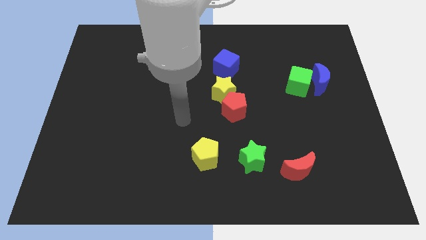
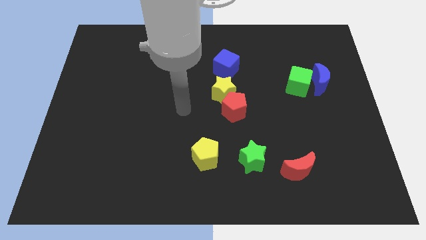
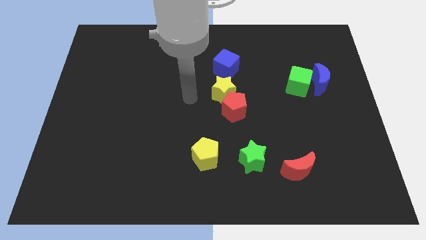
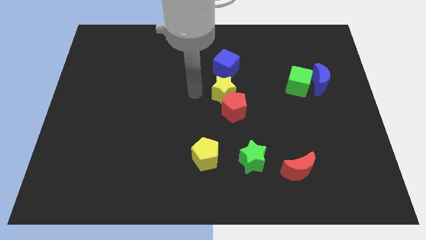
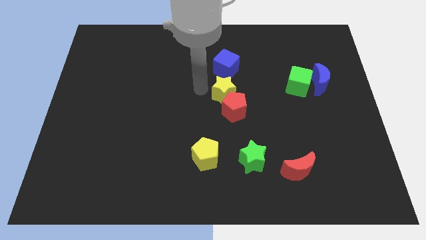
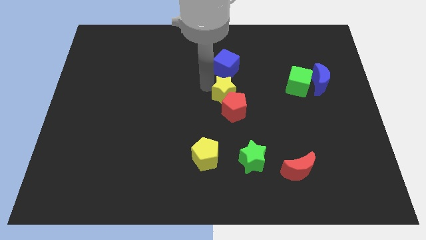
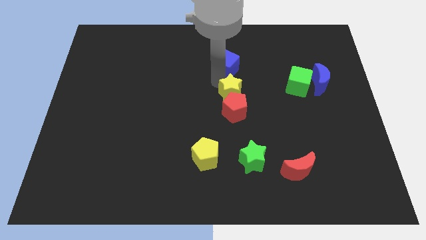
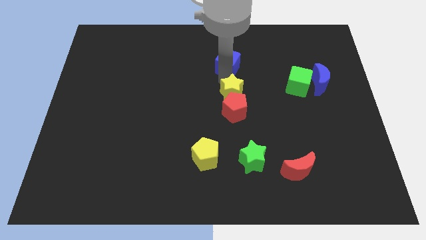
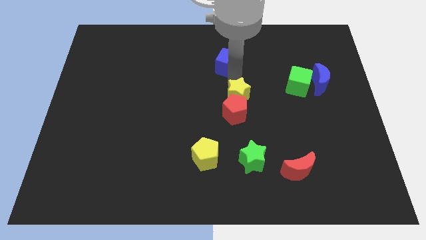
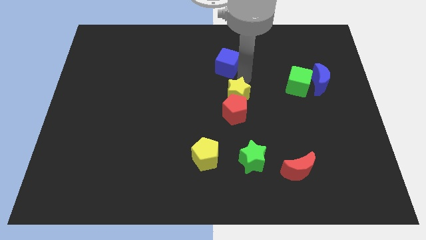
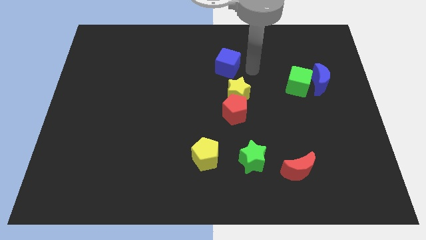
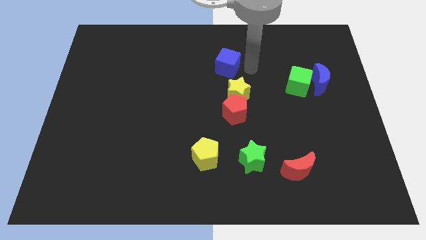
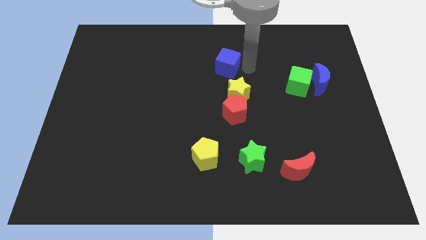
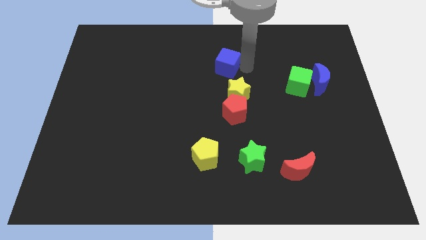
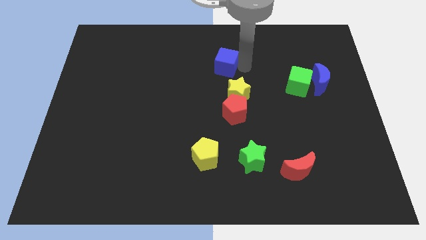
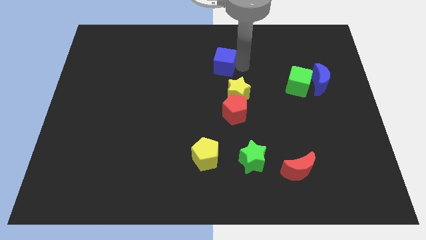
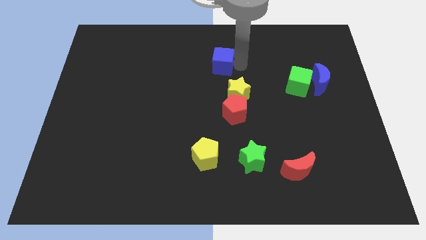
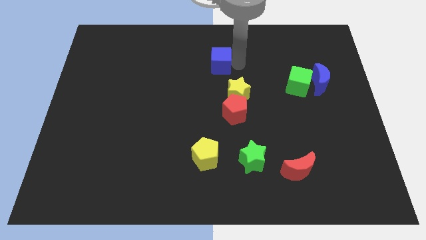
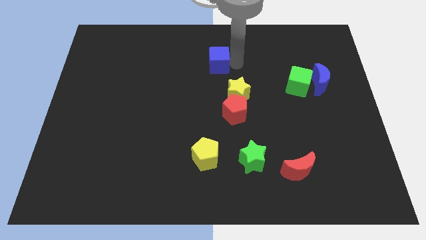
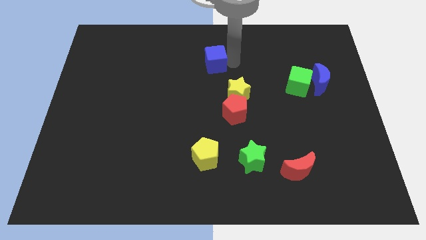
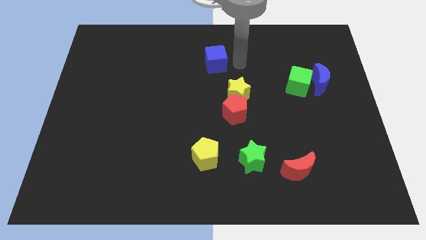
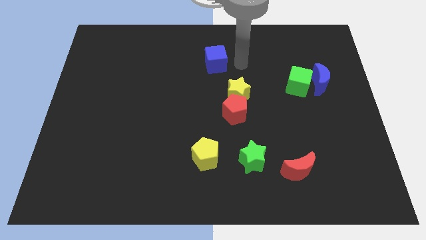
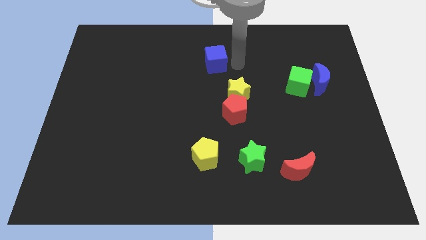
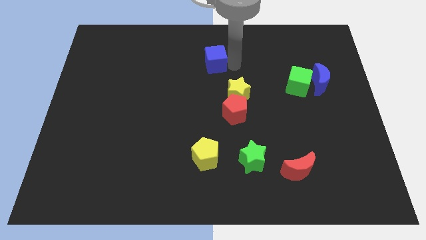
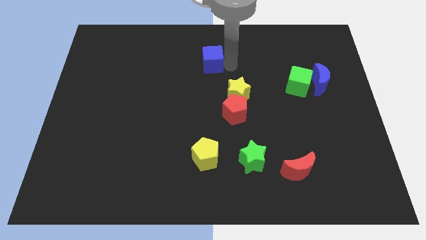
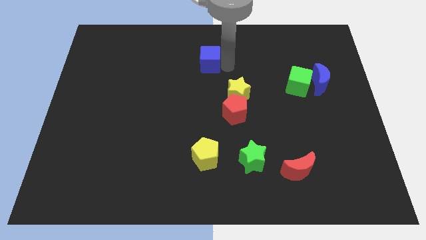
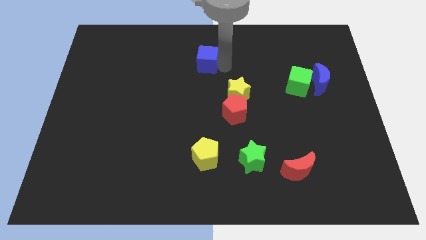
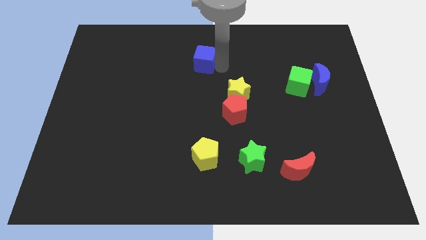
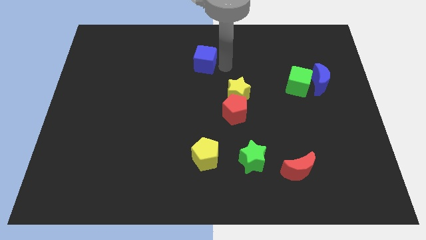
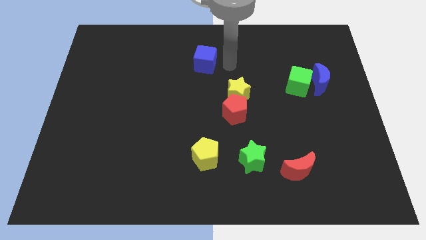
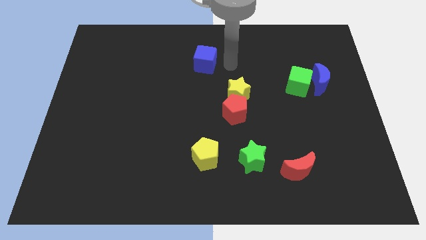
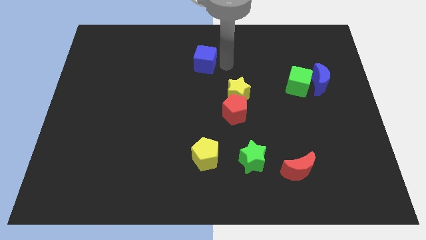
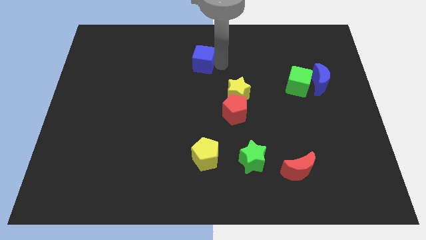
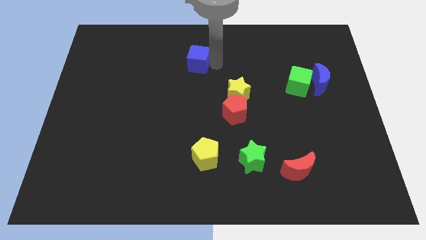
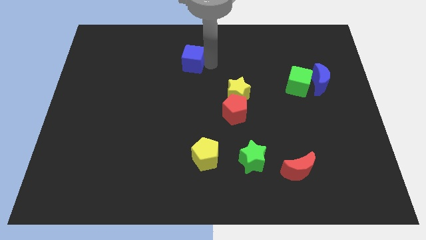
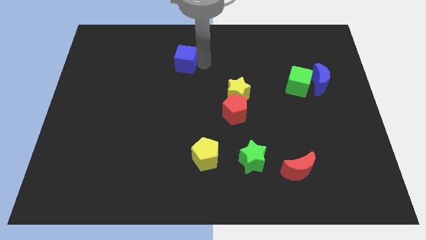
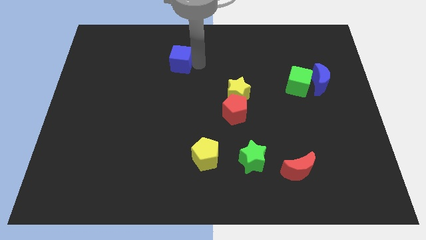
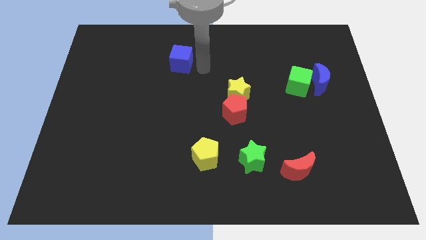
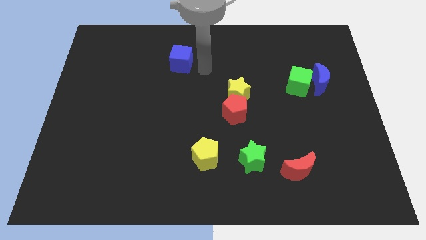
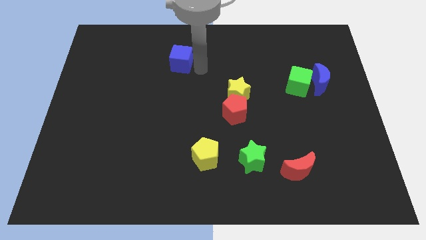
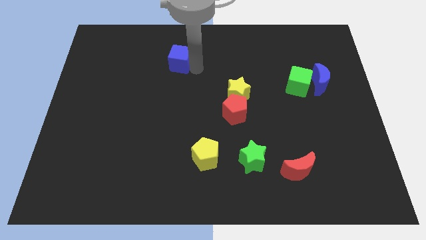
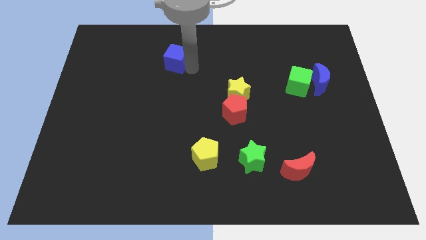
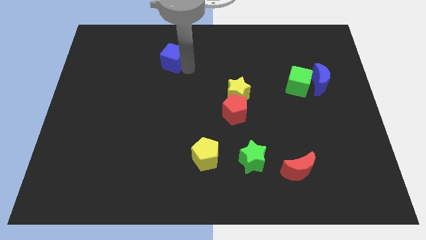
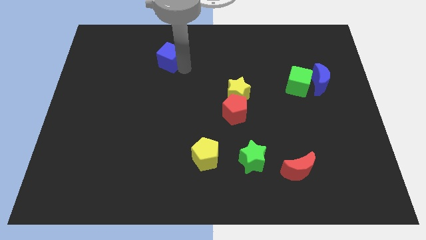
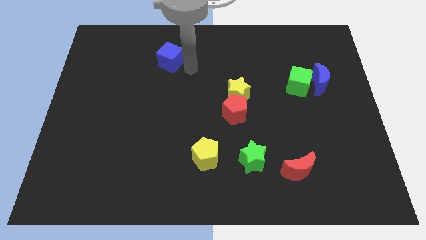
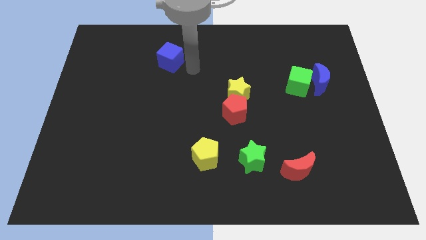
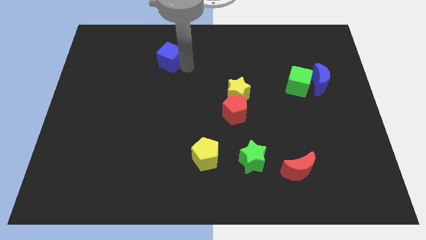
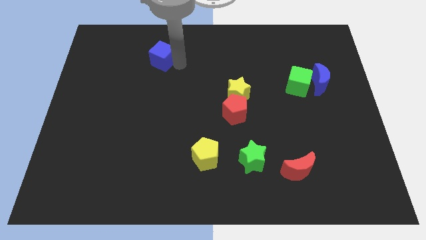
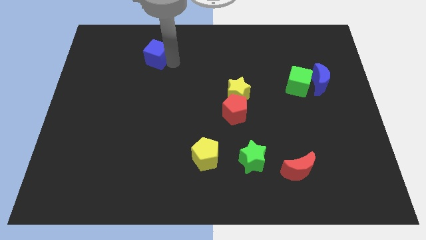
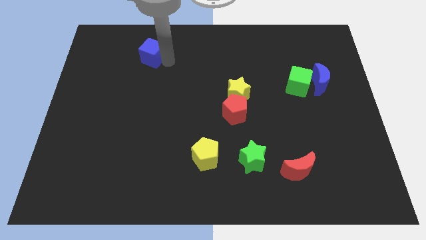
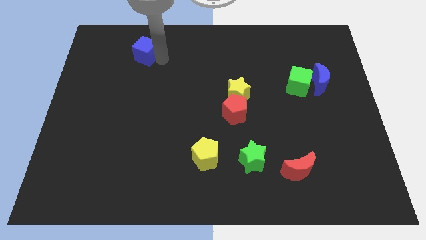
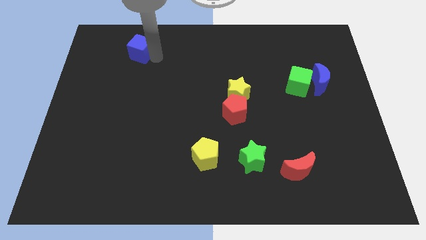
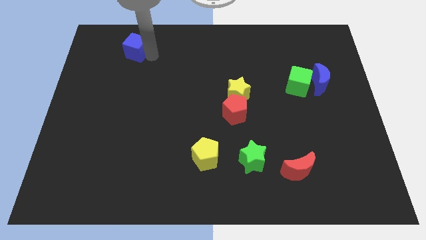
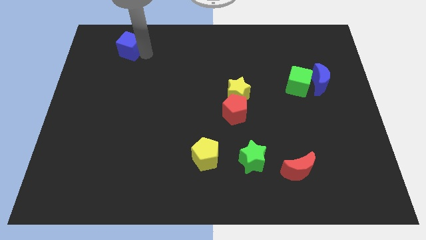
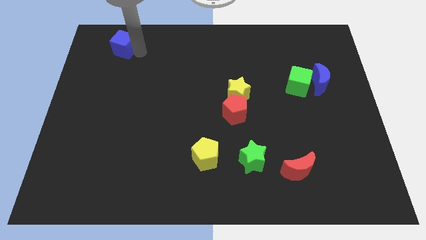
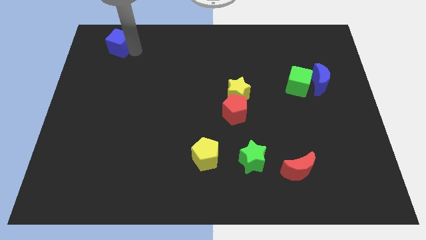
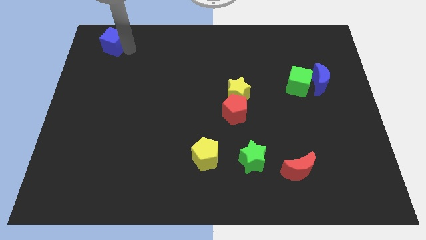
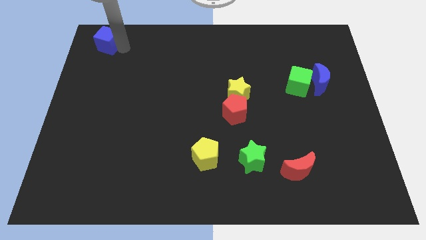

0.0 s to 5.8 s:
push the blue cube to the top left of the board
